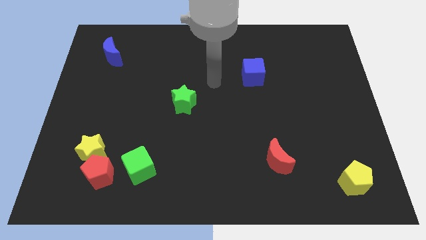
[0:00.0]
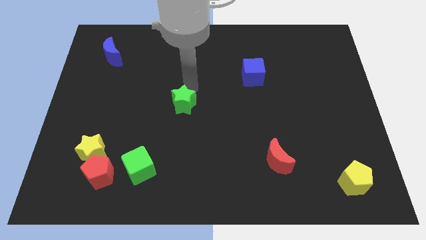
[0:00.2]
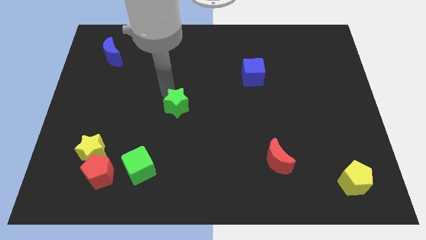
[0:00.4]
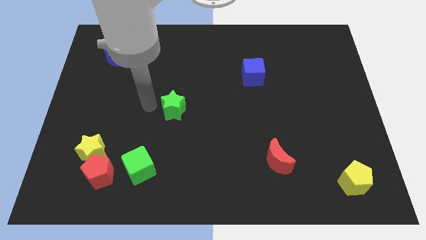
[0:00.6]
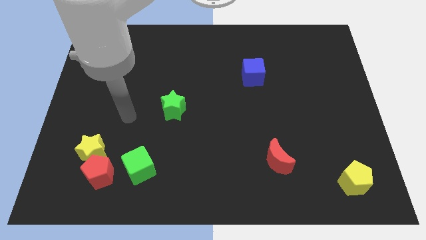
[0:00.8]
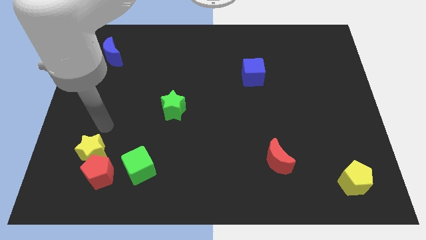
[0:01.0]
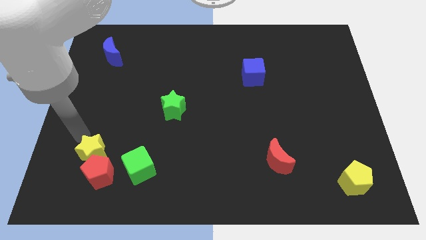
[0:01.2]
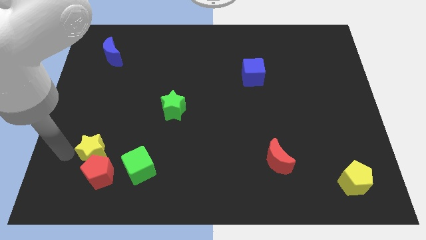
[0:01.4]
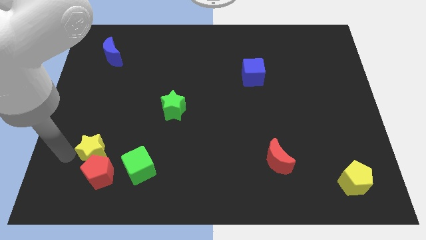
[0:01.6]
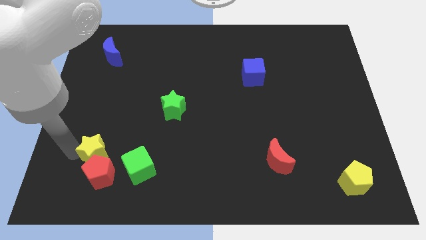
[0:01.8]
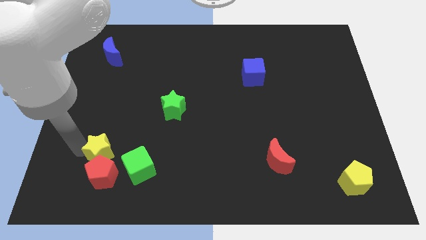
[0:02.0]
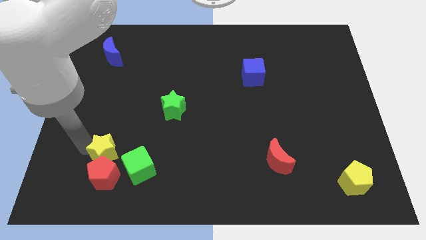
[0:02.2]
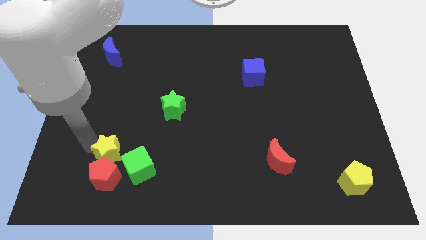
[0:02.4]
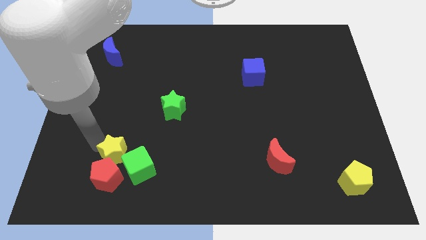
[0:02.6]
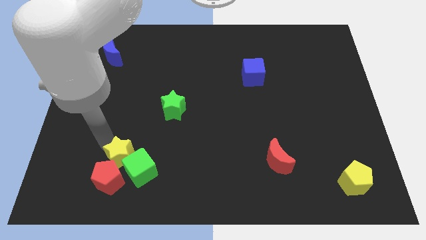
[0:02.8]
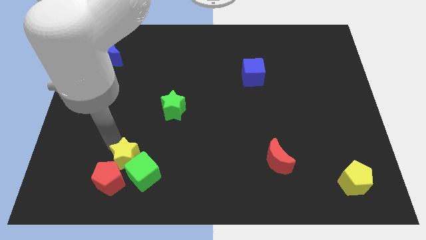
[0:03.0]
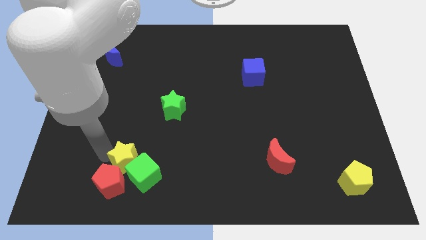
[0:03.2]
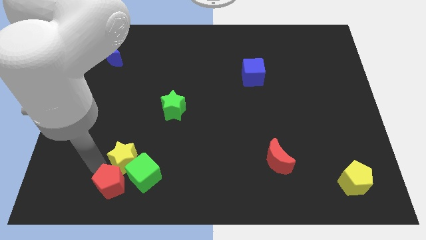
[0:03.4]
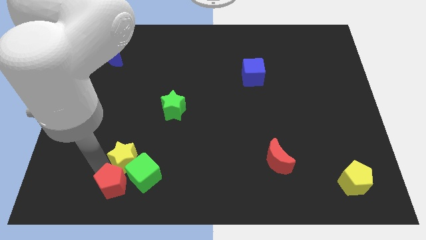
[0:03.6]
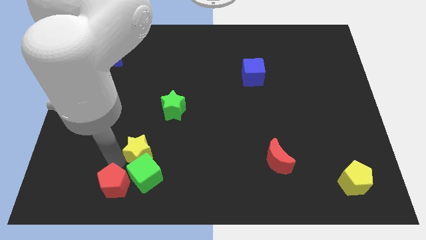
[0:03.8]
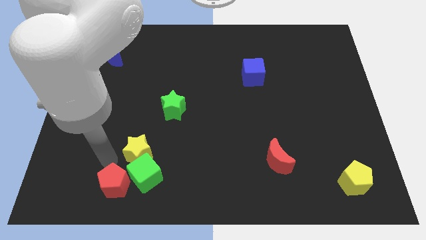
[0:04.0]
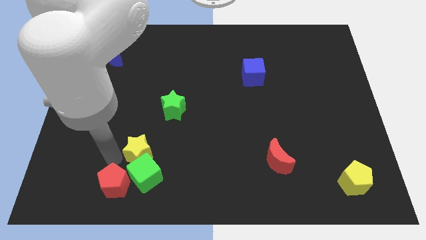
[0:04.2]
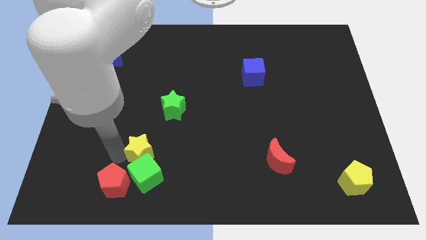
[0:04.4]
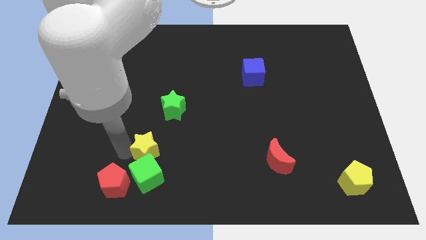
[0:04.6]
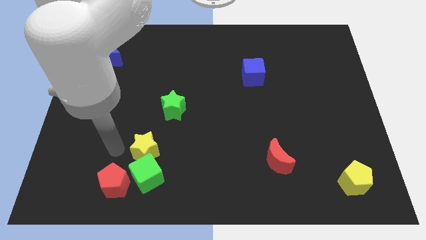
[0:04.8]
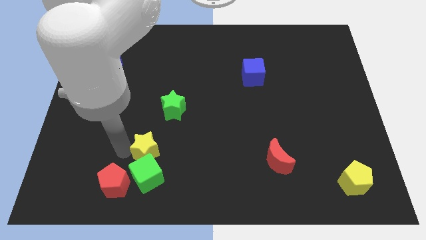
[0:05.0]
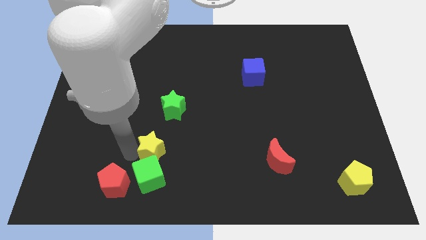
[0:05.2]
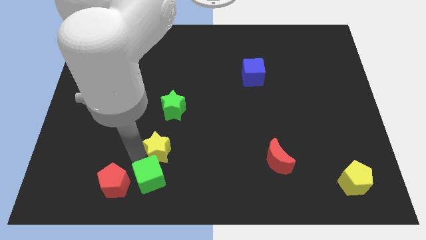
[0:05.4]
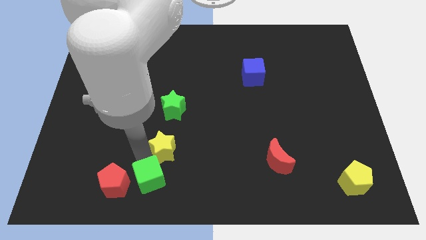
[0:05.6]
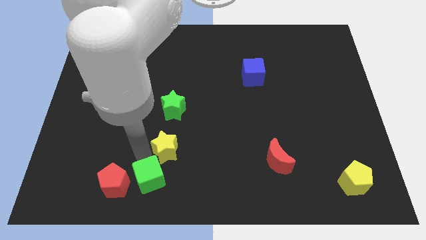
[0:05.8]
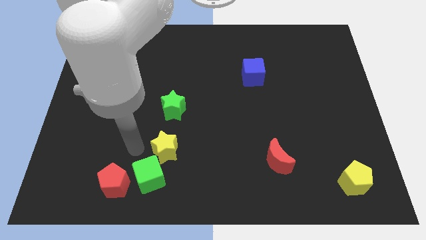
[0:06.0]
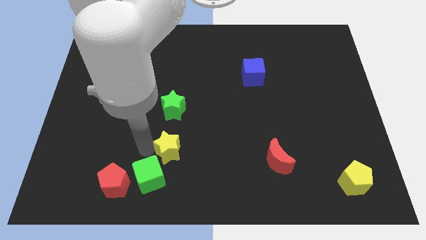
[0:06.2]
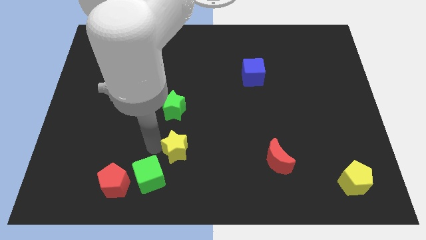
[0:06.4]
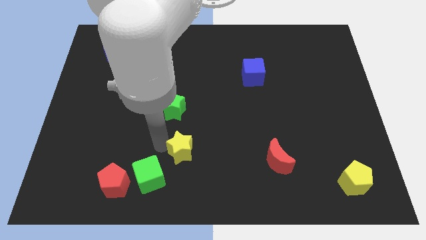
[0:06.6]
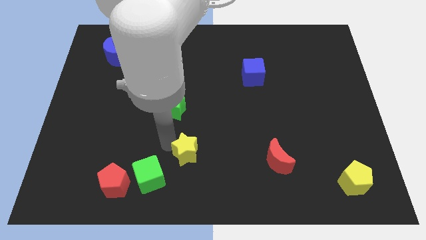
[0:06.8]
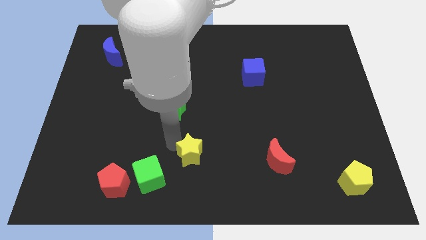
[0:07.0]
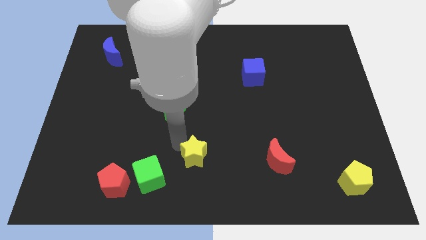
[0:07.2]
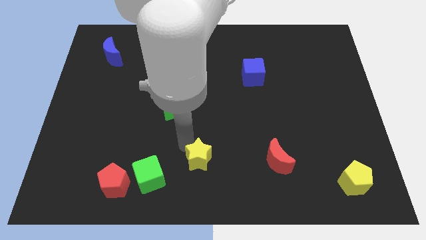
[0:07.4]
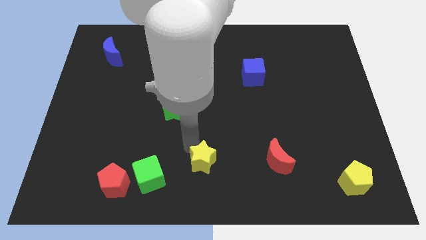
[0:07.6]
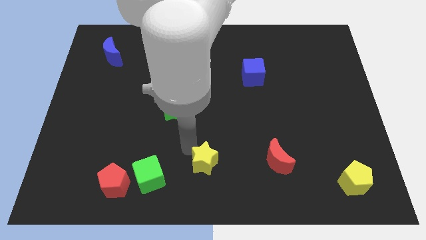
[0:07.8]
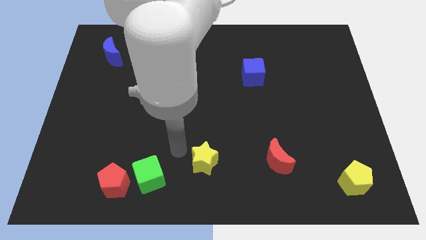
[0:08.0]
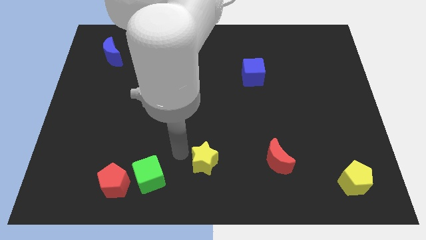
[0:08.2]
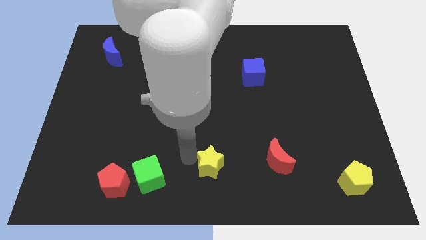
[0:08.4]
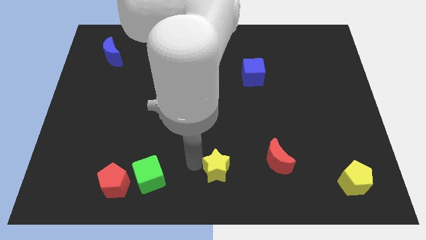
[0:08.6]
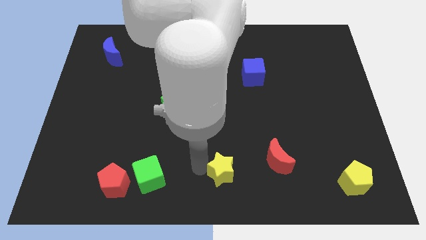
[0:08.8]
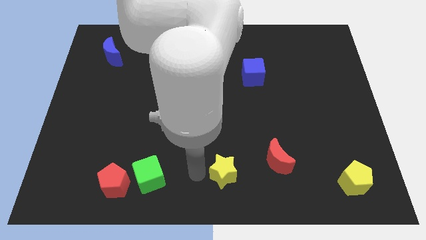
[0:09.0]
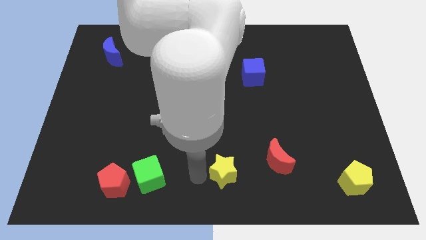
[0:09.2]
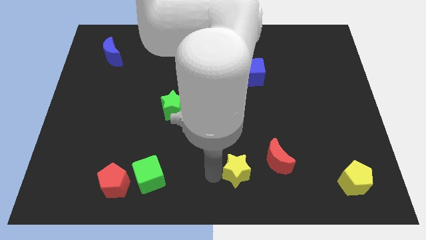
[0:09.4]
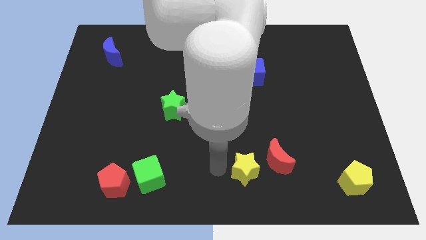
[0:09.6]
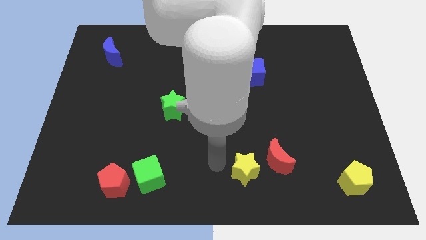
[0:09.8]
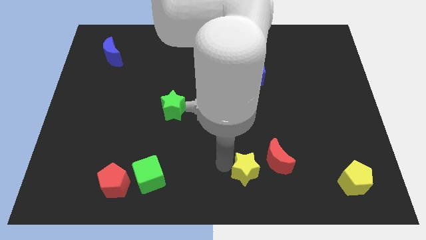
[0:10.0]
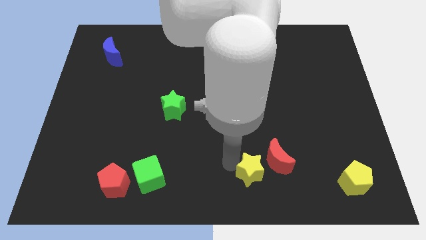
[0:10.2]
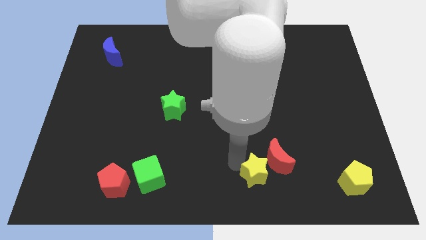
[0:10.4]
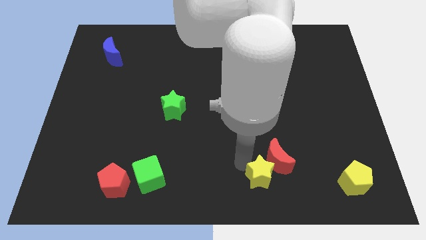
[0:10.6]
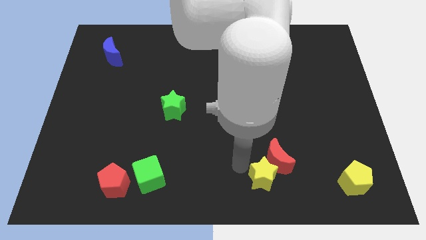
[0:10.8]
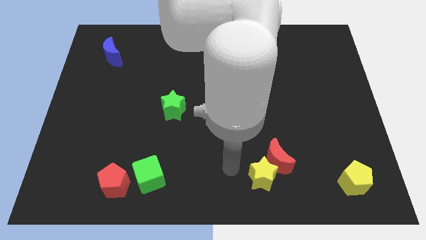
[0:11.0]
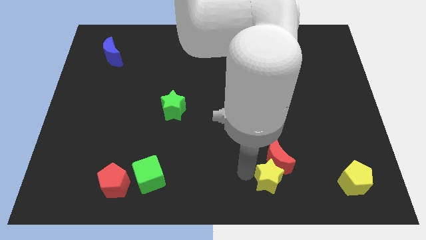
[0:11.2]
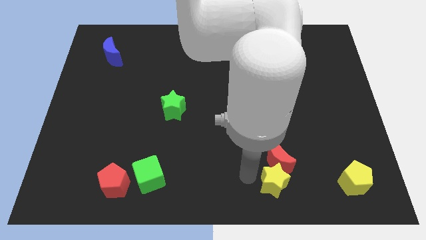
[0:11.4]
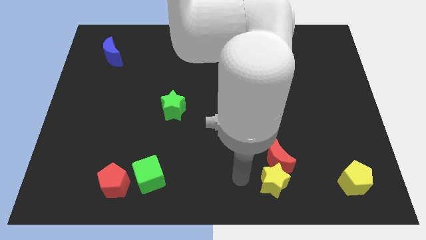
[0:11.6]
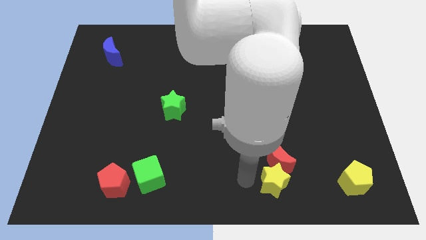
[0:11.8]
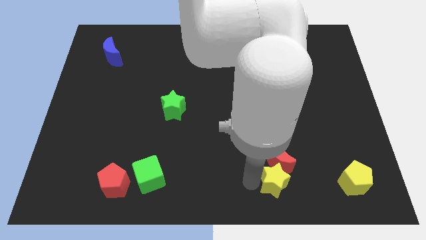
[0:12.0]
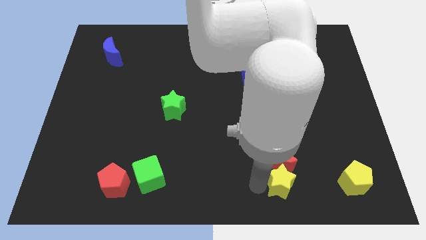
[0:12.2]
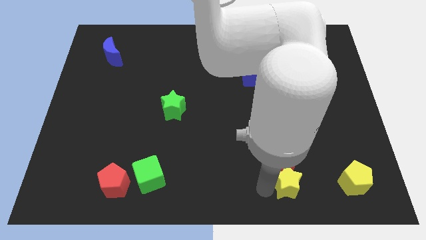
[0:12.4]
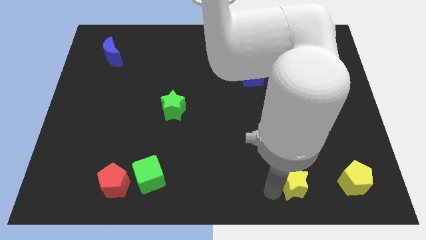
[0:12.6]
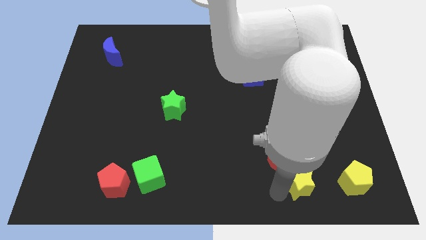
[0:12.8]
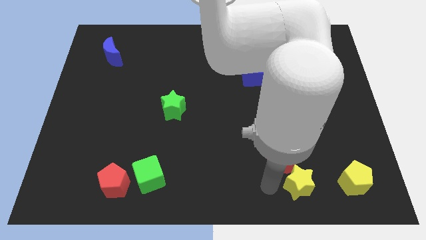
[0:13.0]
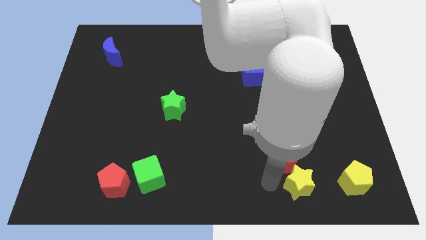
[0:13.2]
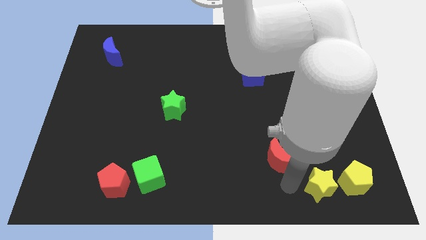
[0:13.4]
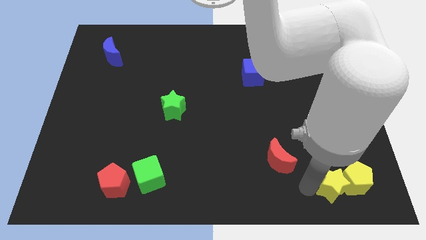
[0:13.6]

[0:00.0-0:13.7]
push the yellow star towards the yellow pentagon
